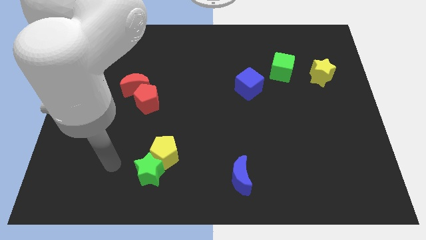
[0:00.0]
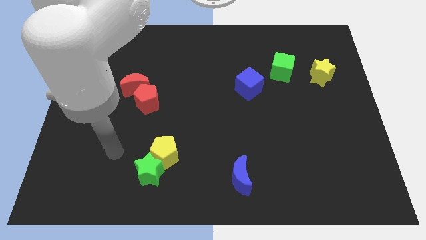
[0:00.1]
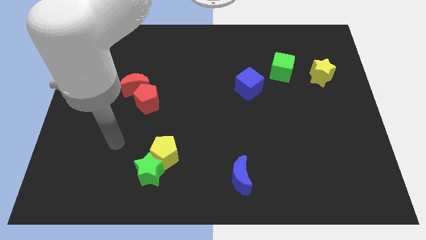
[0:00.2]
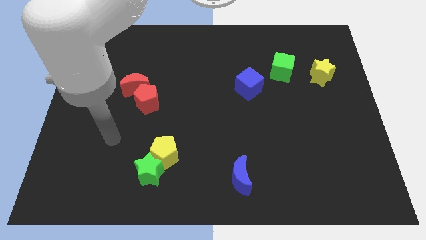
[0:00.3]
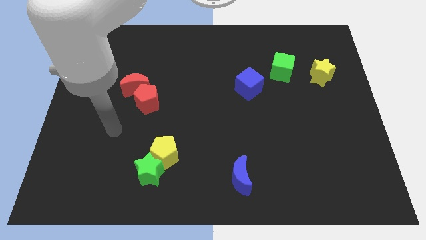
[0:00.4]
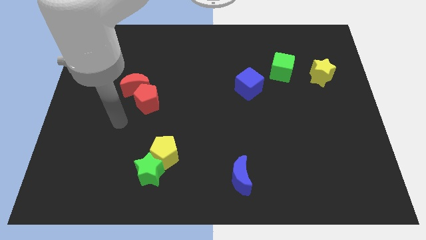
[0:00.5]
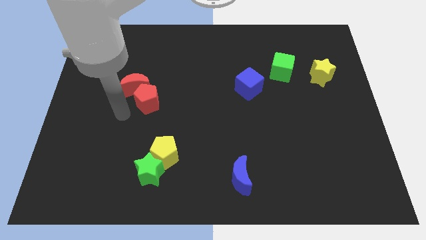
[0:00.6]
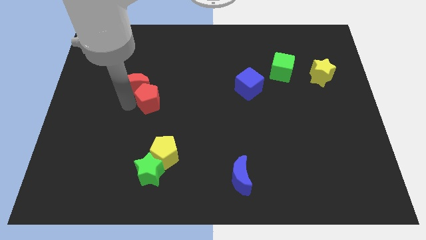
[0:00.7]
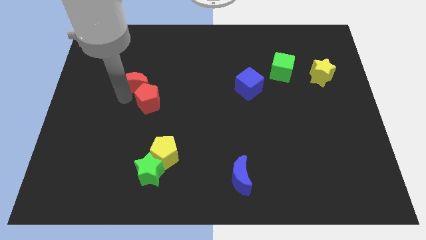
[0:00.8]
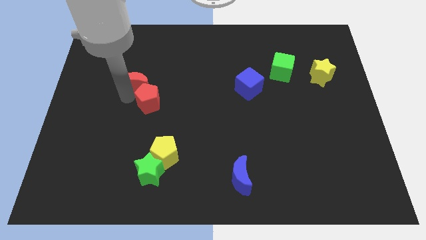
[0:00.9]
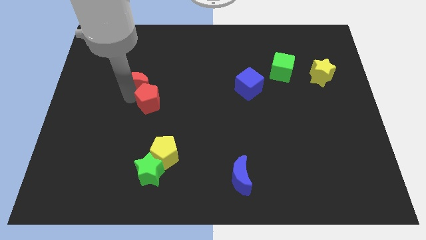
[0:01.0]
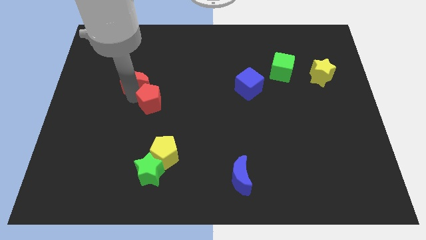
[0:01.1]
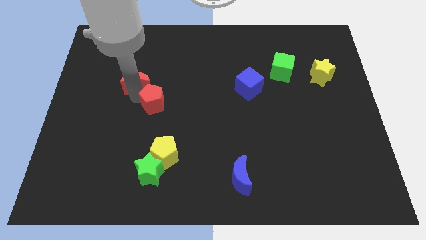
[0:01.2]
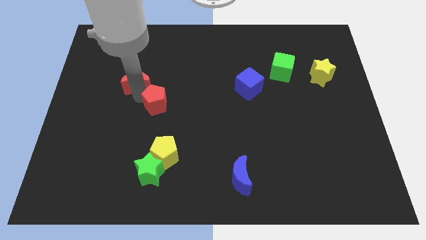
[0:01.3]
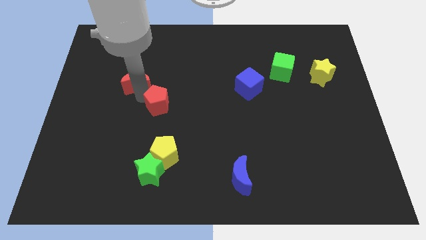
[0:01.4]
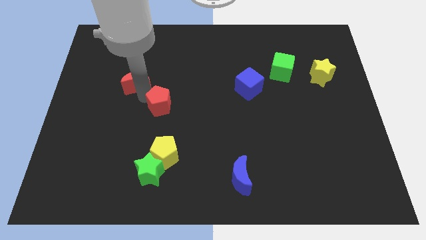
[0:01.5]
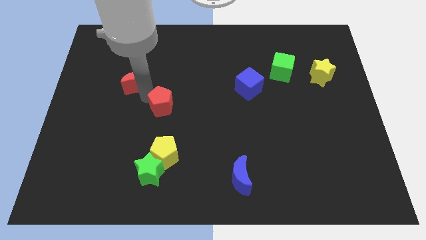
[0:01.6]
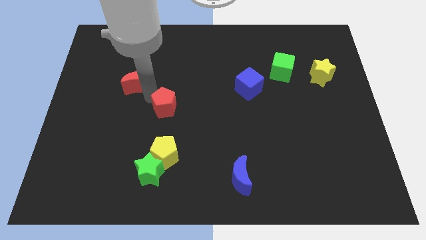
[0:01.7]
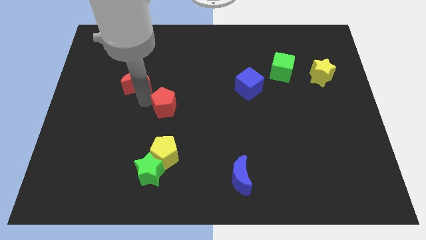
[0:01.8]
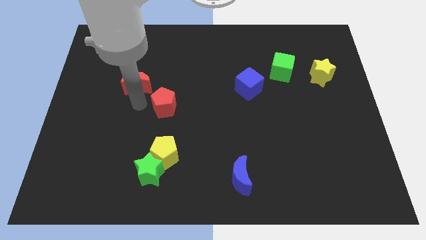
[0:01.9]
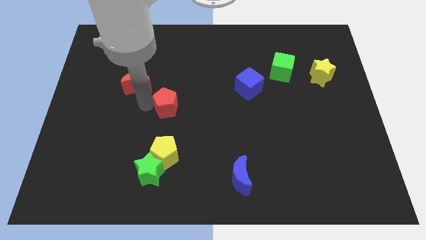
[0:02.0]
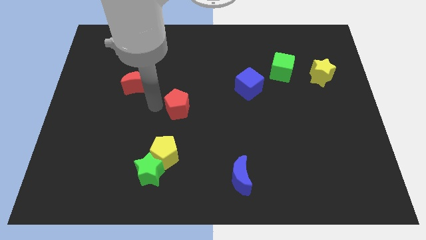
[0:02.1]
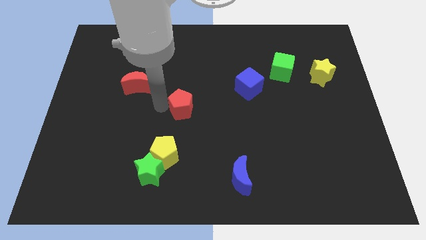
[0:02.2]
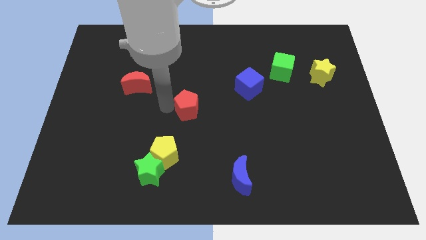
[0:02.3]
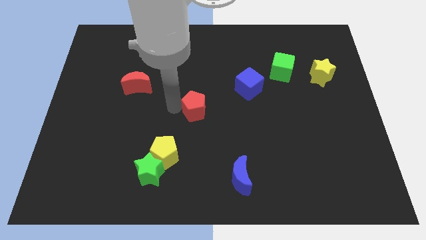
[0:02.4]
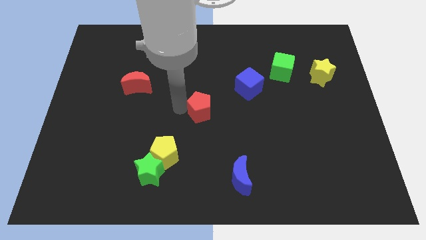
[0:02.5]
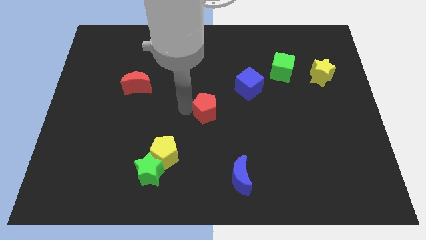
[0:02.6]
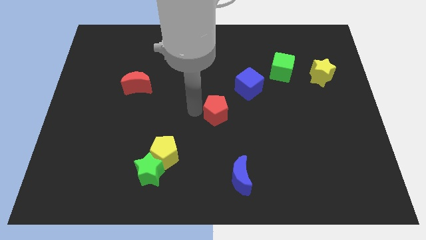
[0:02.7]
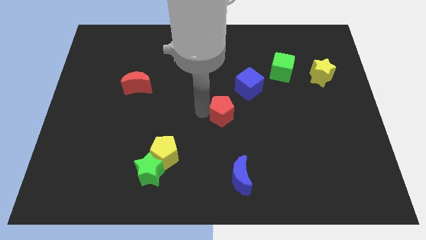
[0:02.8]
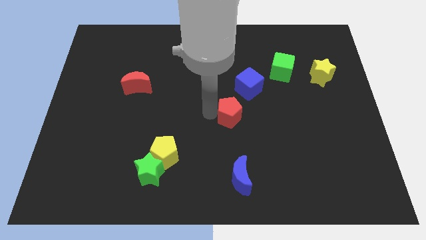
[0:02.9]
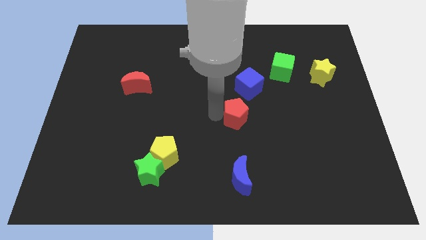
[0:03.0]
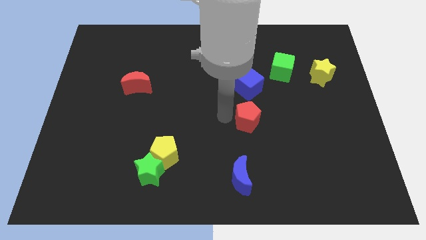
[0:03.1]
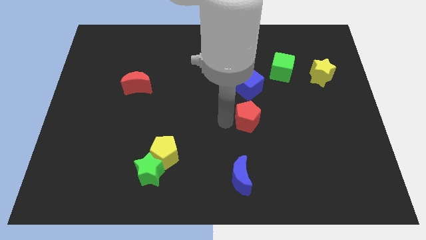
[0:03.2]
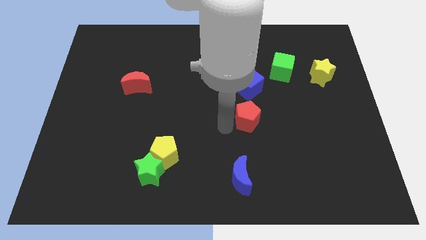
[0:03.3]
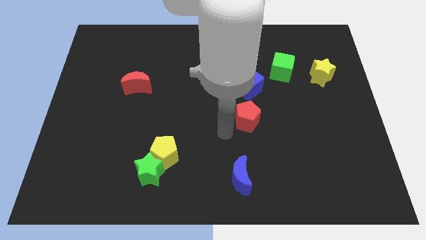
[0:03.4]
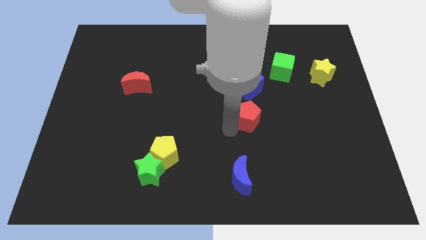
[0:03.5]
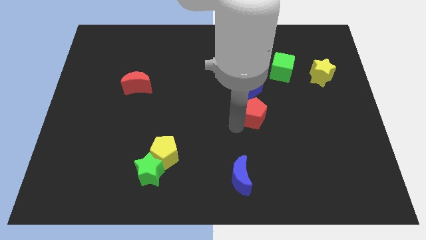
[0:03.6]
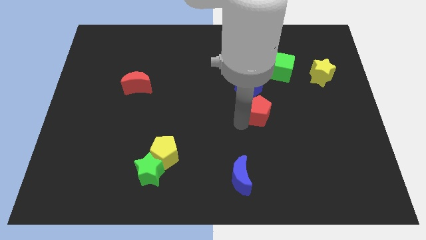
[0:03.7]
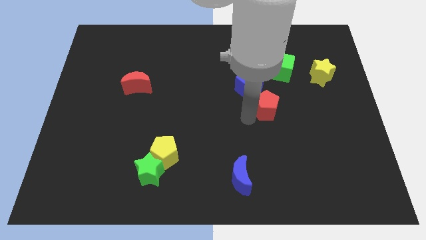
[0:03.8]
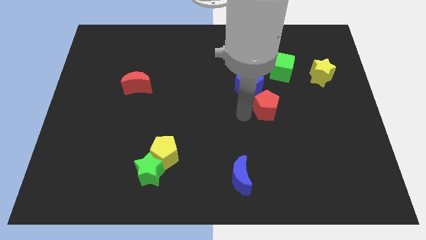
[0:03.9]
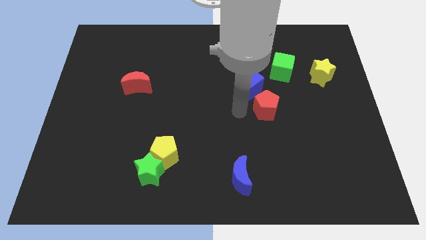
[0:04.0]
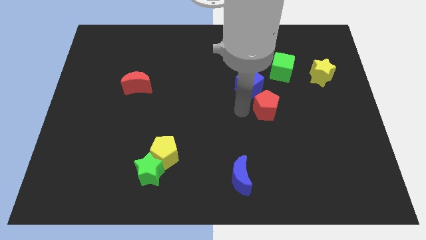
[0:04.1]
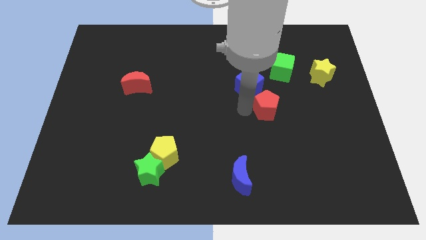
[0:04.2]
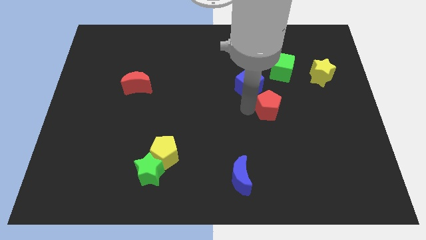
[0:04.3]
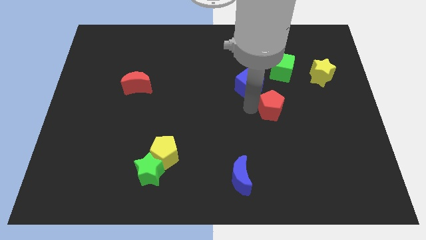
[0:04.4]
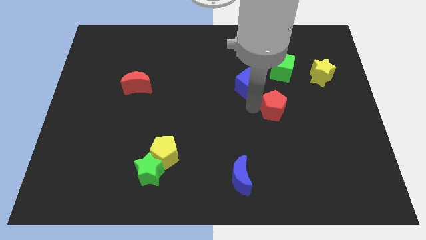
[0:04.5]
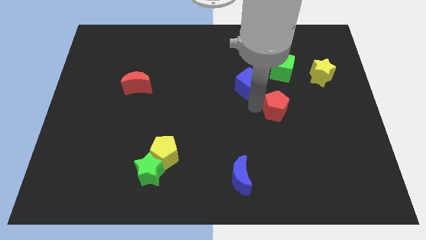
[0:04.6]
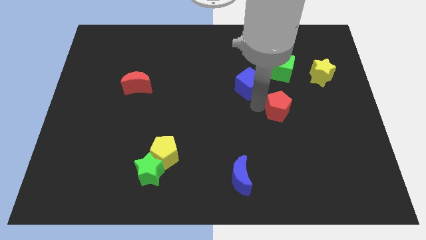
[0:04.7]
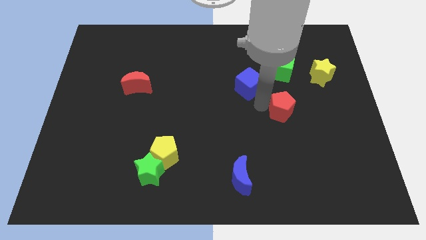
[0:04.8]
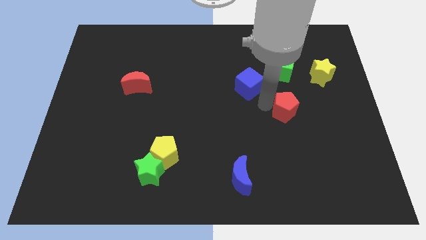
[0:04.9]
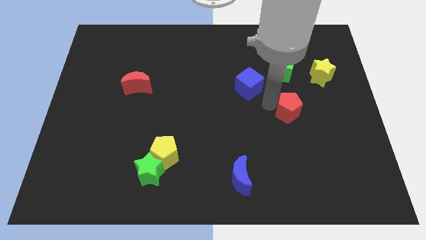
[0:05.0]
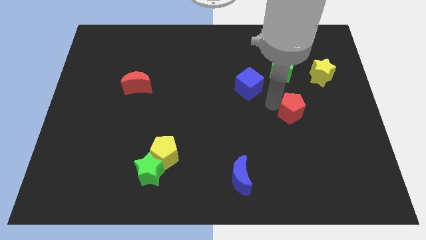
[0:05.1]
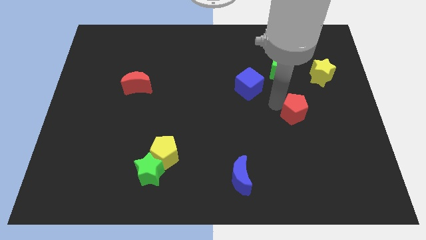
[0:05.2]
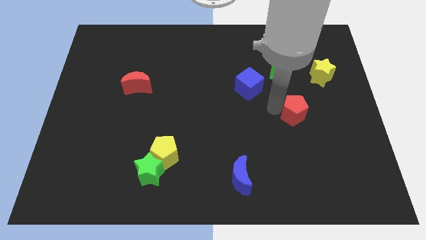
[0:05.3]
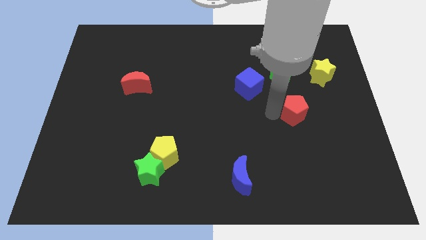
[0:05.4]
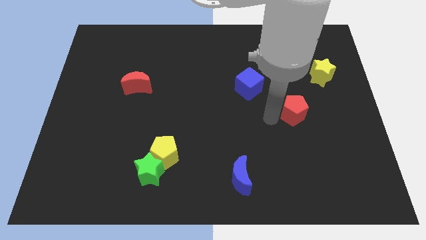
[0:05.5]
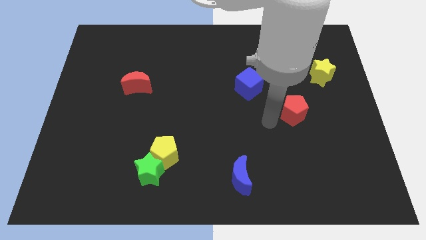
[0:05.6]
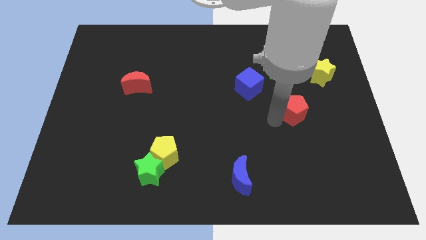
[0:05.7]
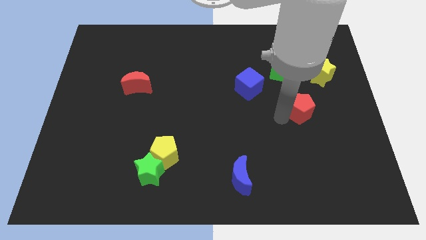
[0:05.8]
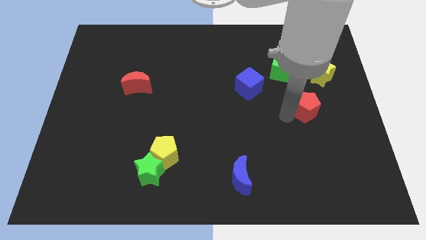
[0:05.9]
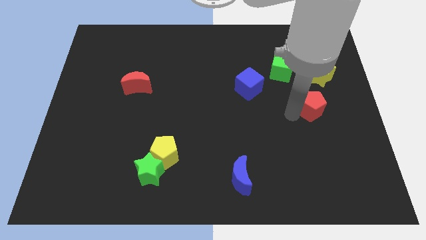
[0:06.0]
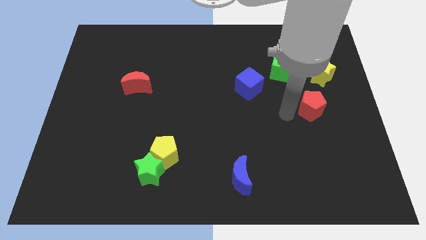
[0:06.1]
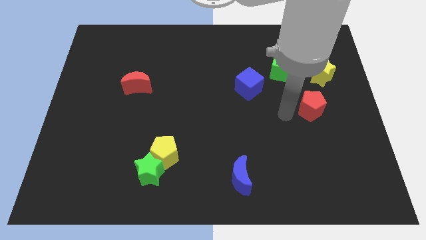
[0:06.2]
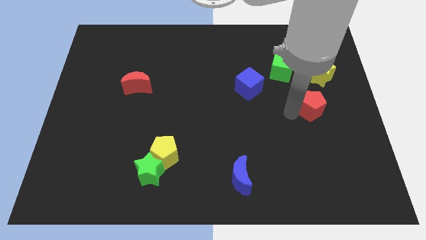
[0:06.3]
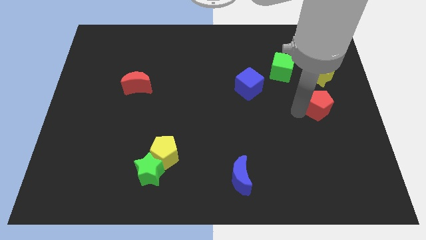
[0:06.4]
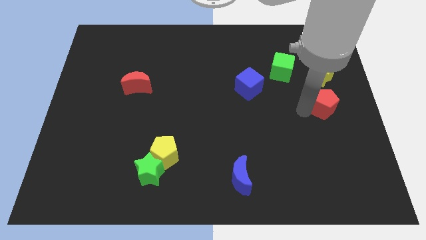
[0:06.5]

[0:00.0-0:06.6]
push the red pentagon to the center right

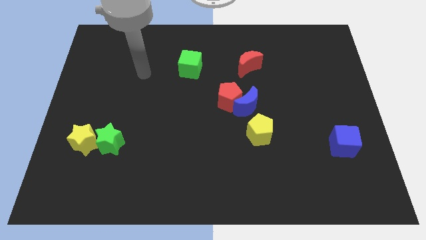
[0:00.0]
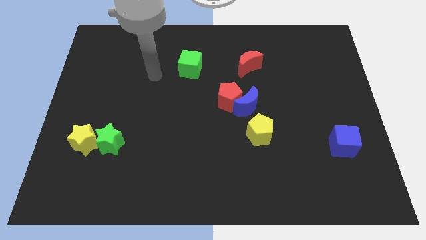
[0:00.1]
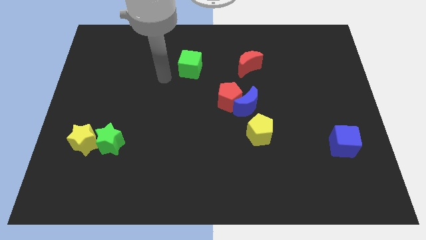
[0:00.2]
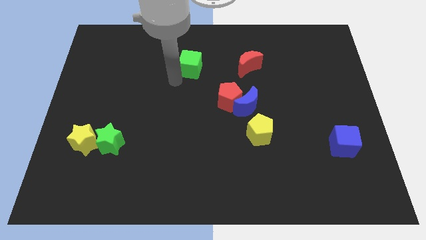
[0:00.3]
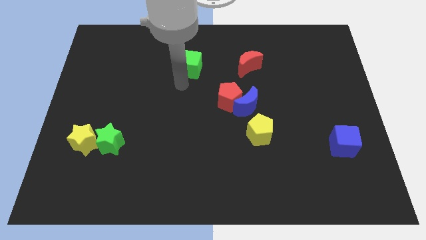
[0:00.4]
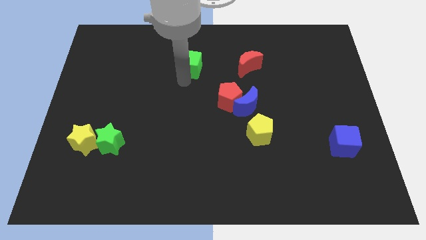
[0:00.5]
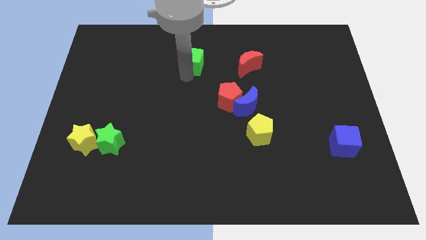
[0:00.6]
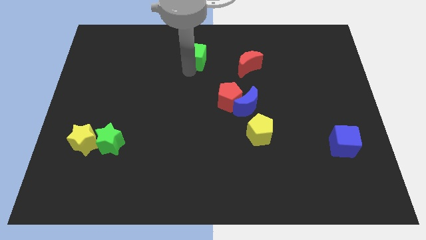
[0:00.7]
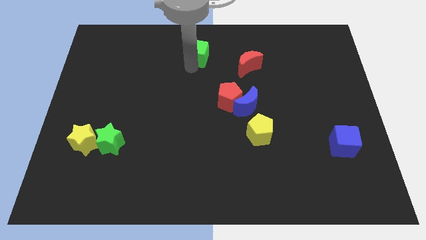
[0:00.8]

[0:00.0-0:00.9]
slide the green cube to the top side
